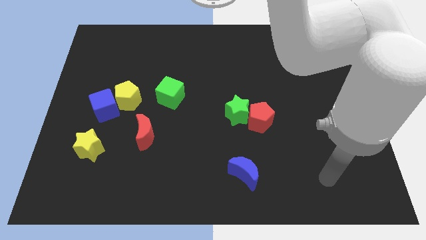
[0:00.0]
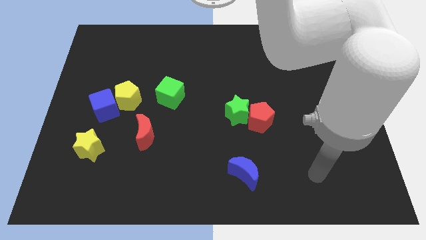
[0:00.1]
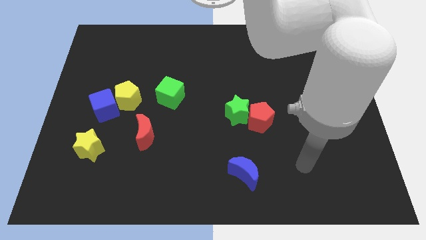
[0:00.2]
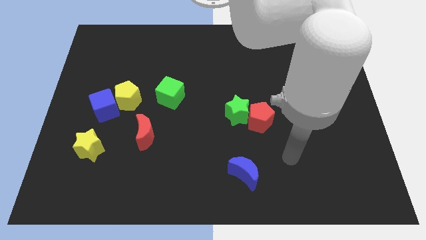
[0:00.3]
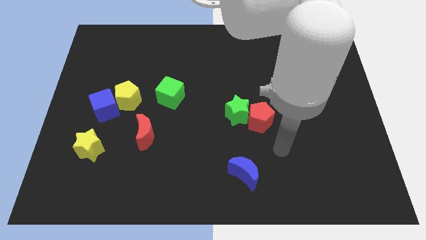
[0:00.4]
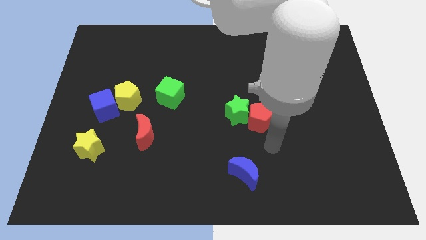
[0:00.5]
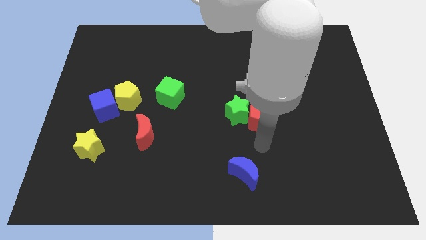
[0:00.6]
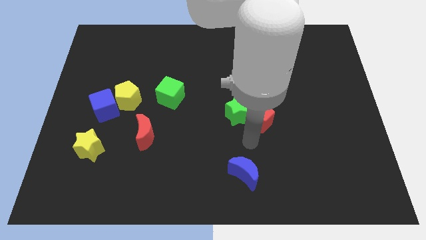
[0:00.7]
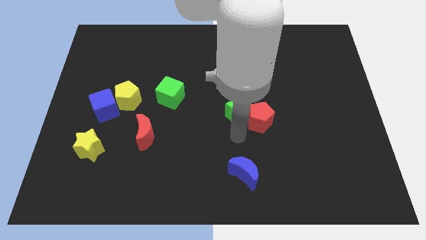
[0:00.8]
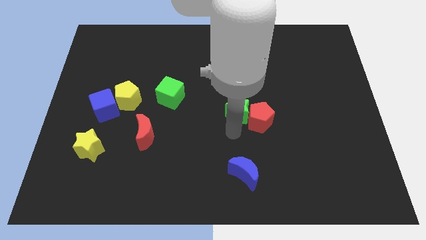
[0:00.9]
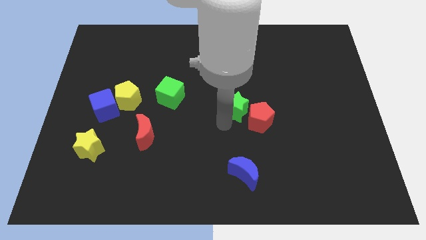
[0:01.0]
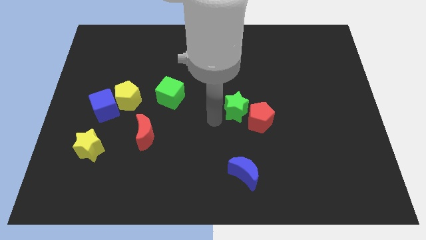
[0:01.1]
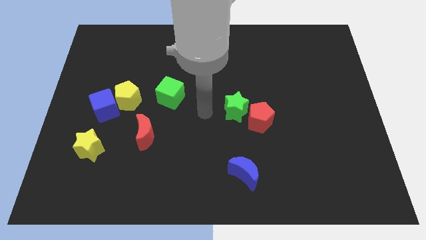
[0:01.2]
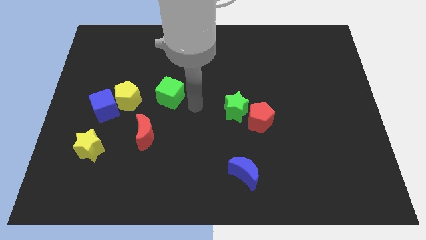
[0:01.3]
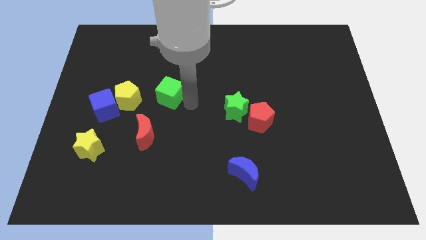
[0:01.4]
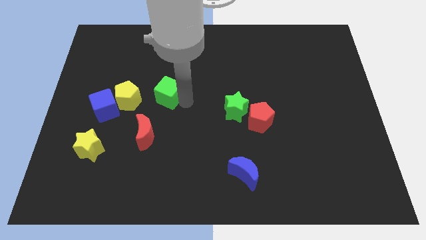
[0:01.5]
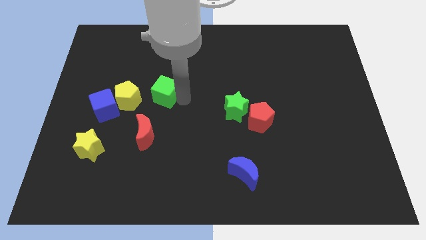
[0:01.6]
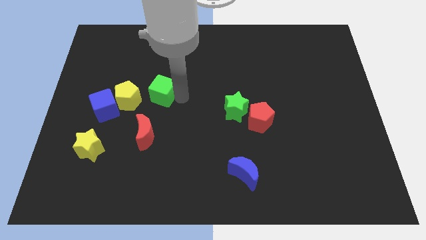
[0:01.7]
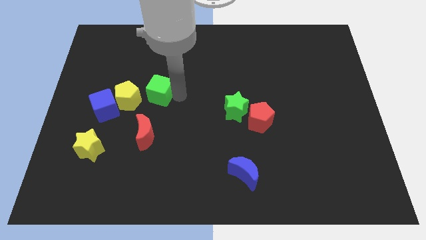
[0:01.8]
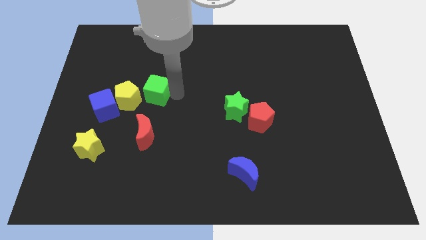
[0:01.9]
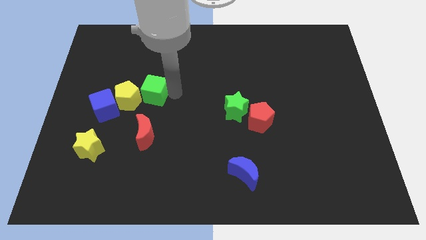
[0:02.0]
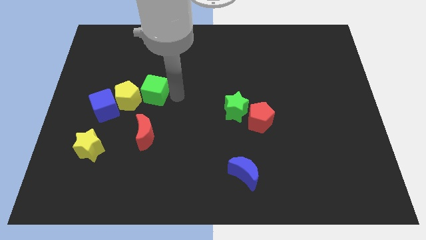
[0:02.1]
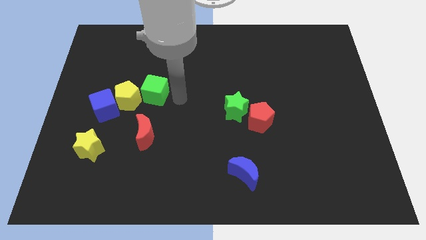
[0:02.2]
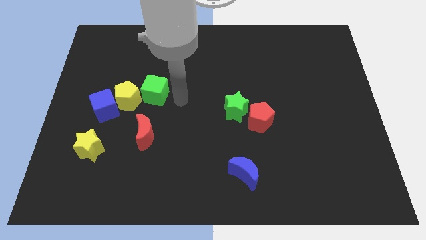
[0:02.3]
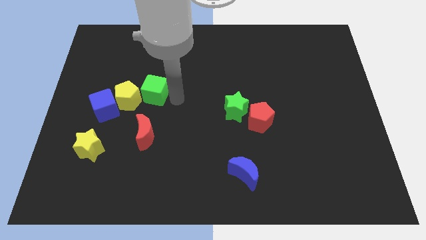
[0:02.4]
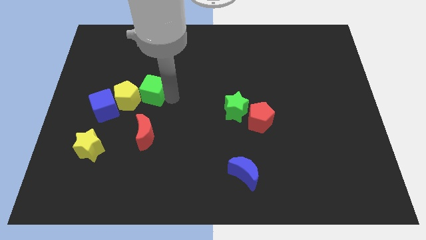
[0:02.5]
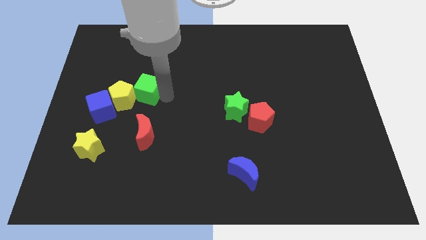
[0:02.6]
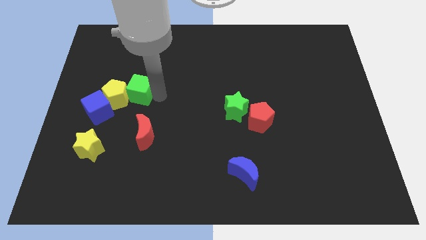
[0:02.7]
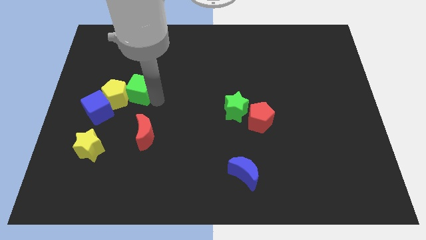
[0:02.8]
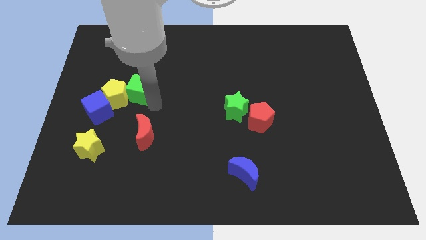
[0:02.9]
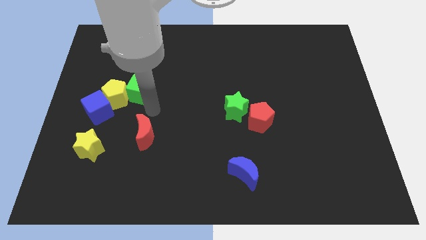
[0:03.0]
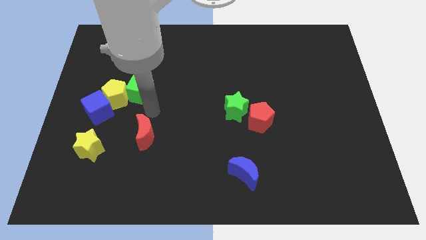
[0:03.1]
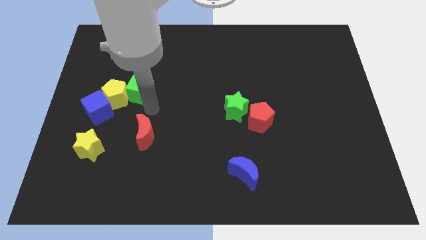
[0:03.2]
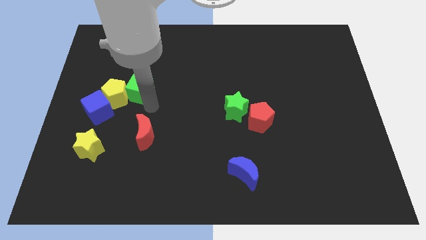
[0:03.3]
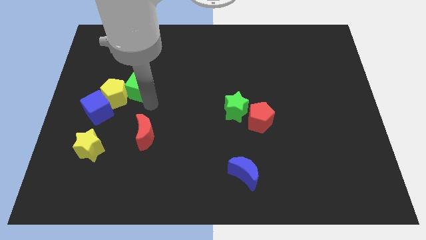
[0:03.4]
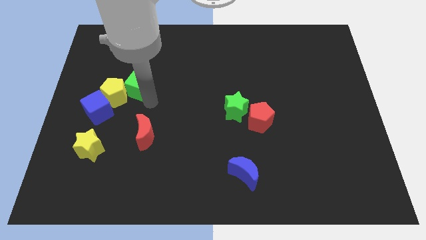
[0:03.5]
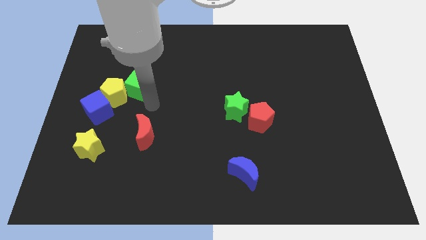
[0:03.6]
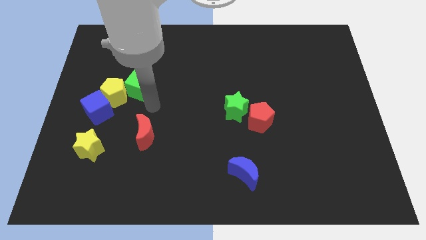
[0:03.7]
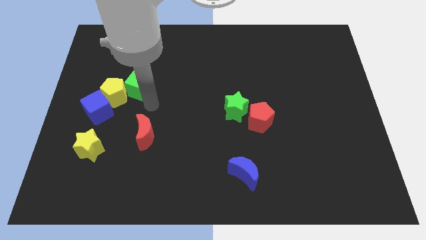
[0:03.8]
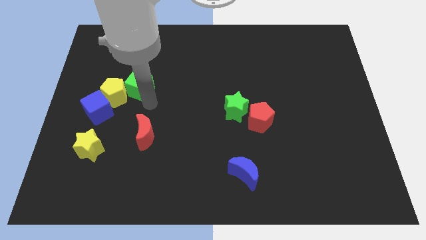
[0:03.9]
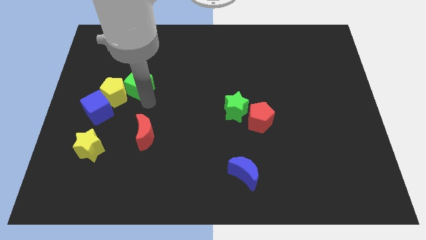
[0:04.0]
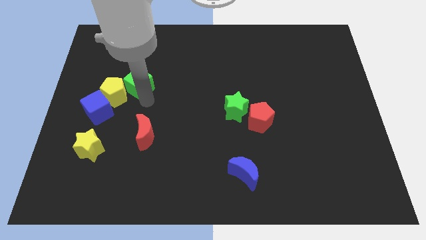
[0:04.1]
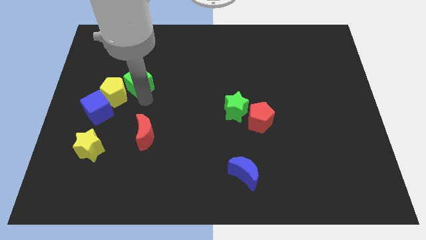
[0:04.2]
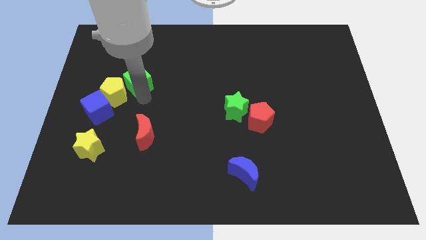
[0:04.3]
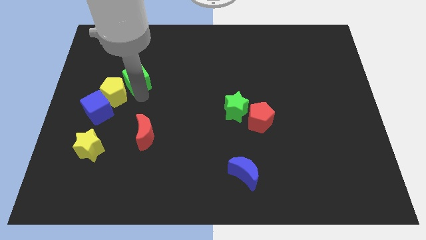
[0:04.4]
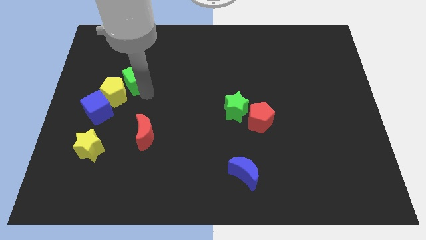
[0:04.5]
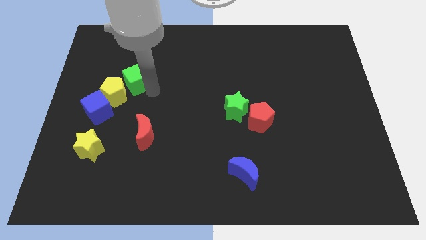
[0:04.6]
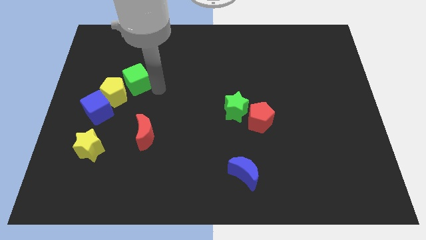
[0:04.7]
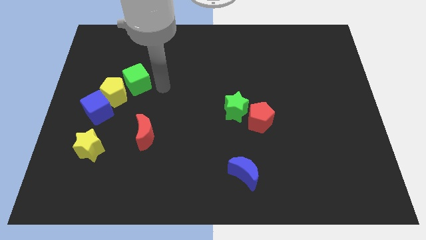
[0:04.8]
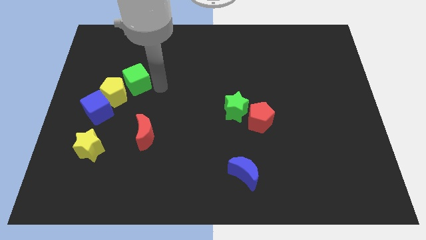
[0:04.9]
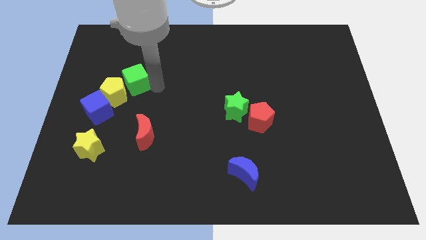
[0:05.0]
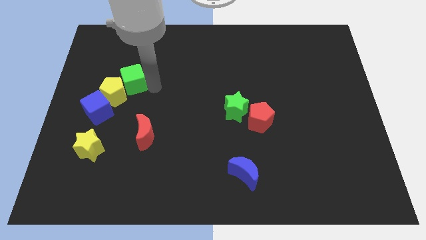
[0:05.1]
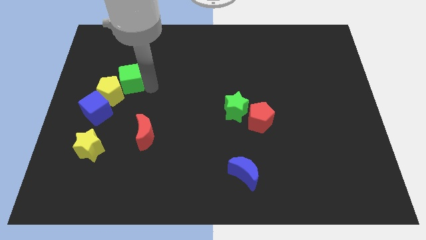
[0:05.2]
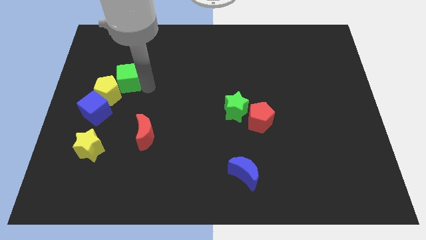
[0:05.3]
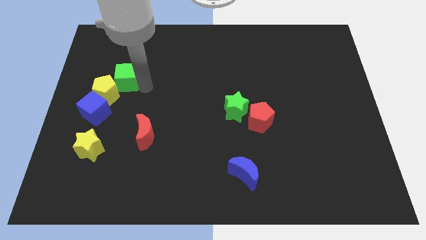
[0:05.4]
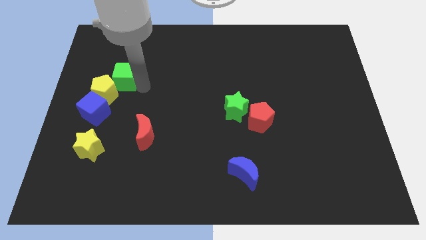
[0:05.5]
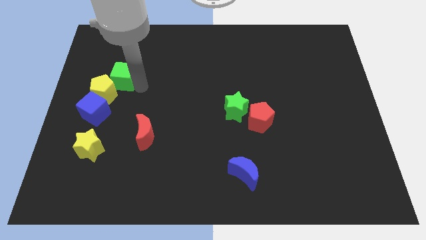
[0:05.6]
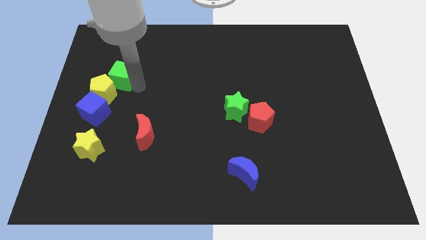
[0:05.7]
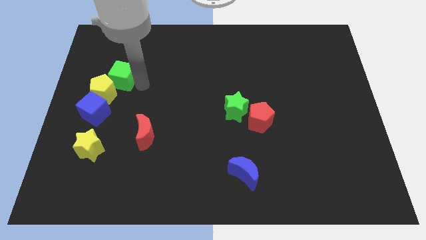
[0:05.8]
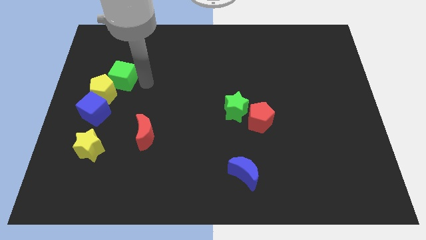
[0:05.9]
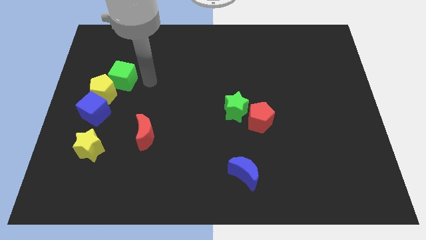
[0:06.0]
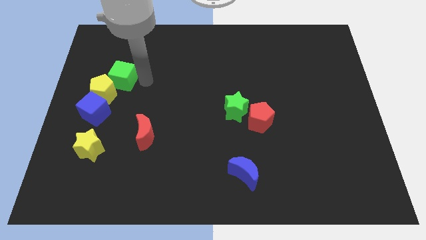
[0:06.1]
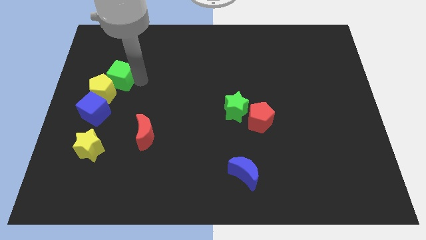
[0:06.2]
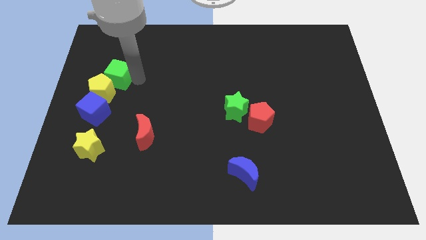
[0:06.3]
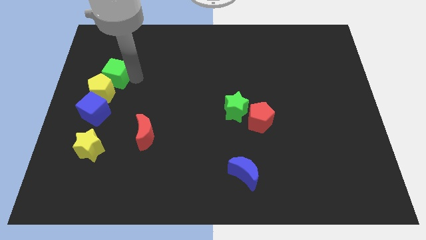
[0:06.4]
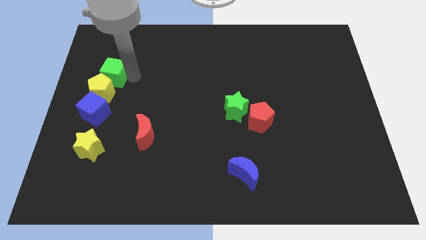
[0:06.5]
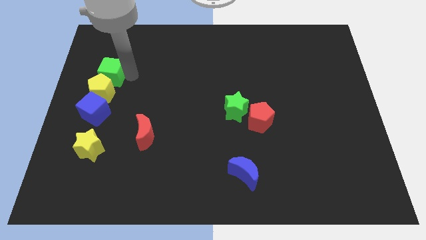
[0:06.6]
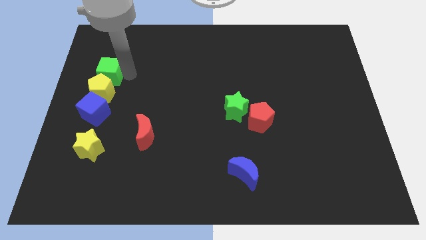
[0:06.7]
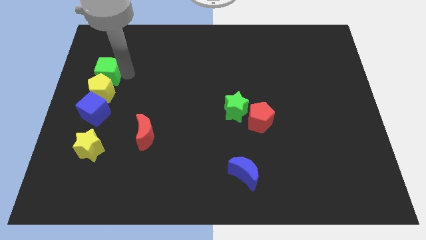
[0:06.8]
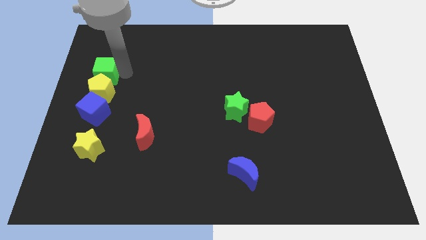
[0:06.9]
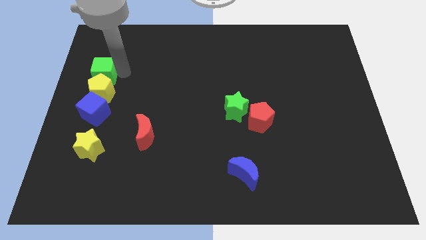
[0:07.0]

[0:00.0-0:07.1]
move the green cube to the left side
